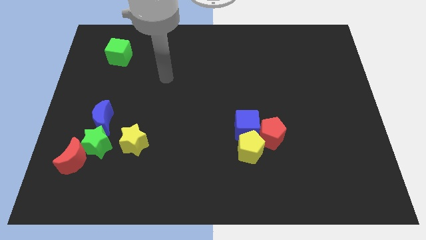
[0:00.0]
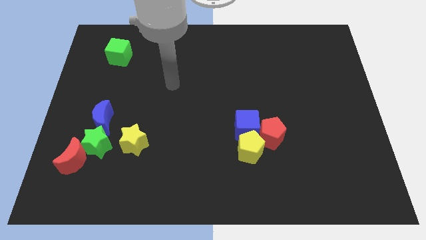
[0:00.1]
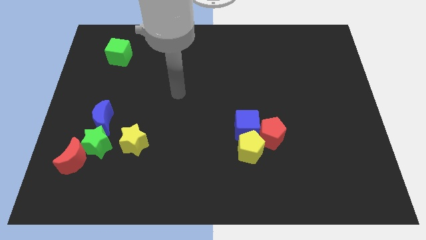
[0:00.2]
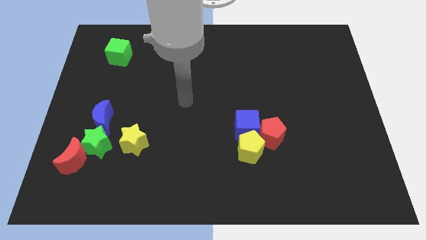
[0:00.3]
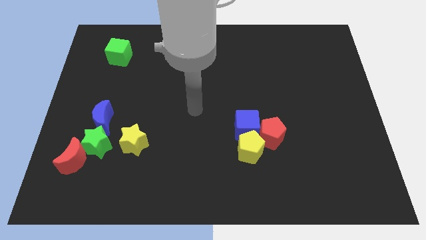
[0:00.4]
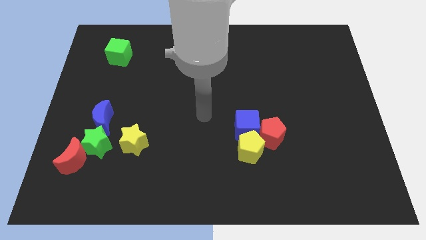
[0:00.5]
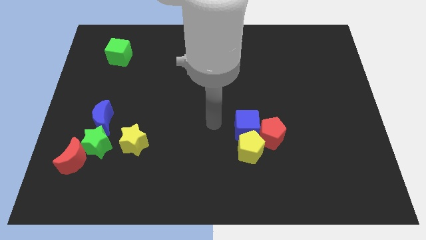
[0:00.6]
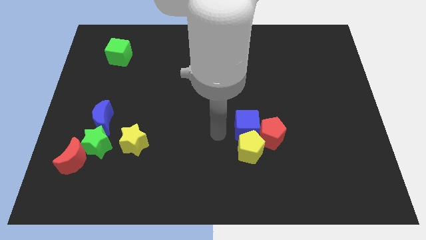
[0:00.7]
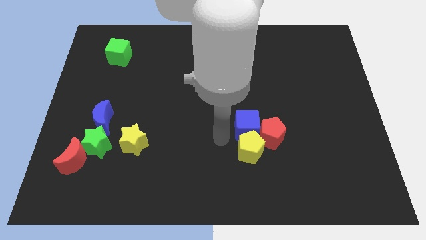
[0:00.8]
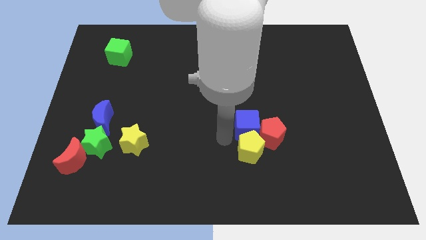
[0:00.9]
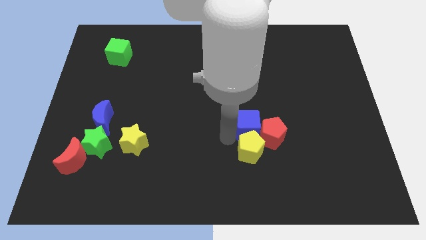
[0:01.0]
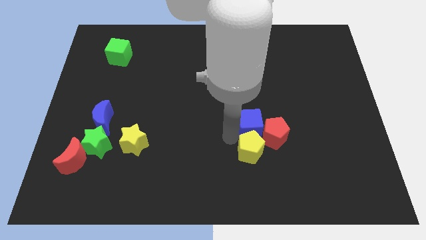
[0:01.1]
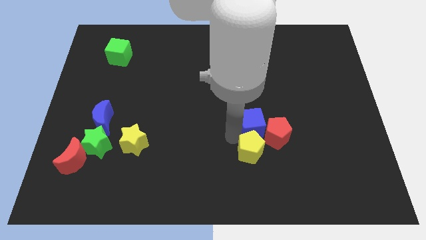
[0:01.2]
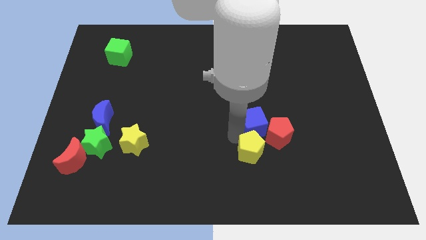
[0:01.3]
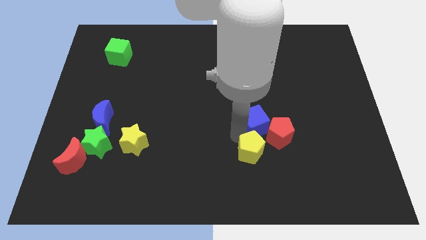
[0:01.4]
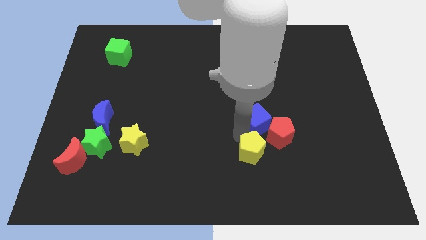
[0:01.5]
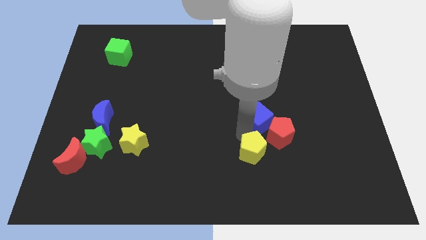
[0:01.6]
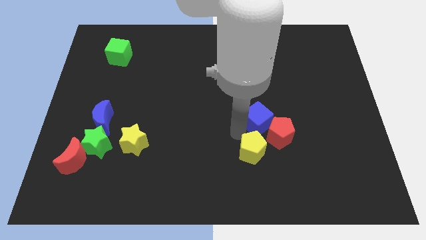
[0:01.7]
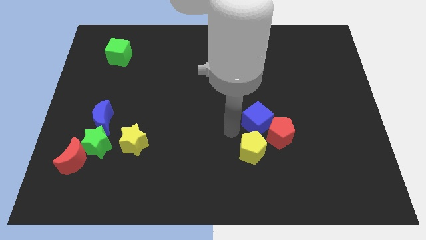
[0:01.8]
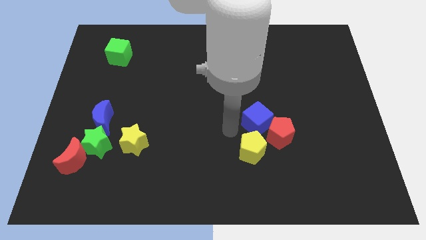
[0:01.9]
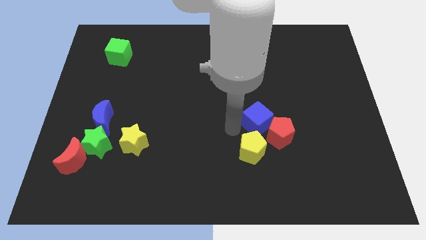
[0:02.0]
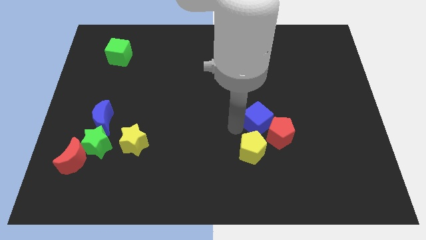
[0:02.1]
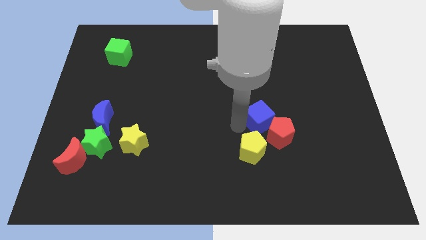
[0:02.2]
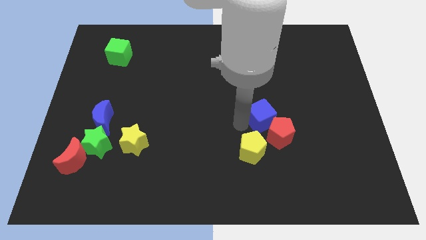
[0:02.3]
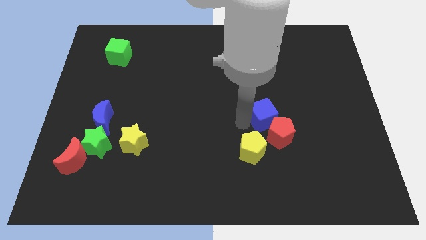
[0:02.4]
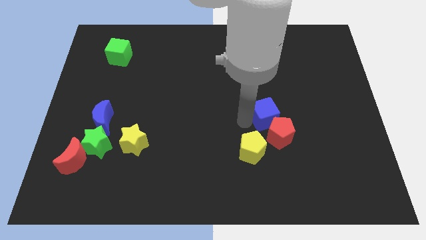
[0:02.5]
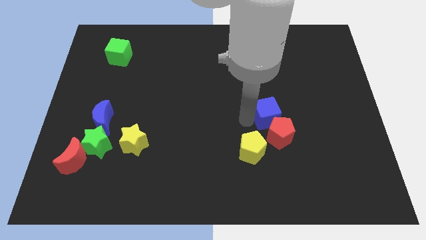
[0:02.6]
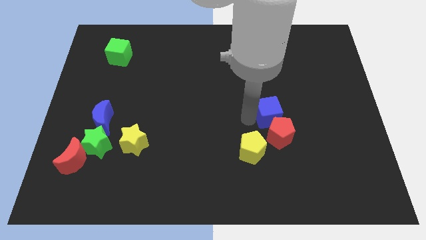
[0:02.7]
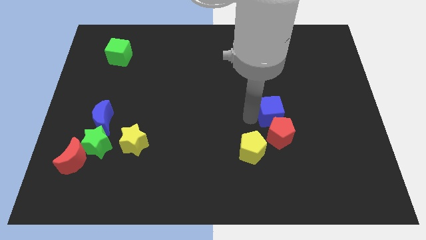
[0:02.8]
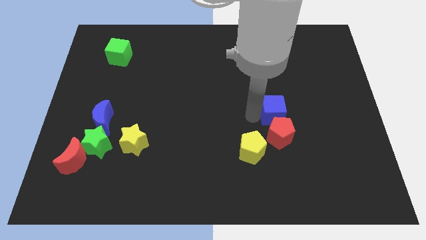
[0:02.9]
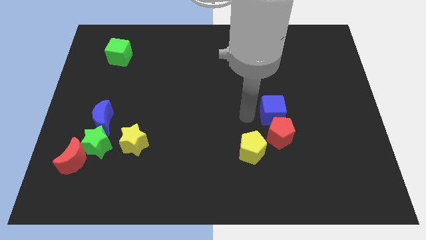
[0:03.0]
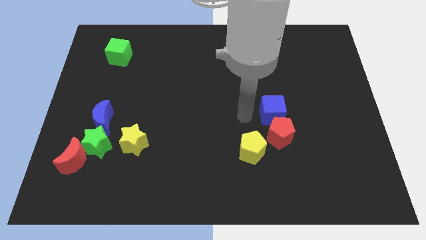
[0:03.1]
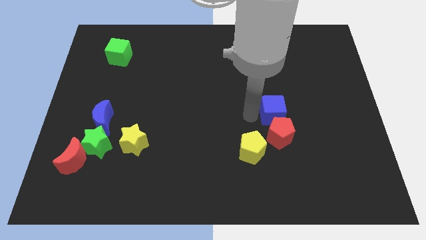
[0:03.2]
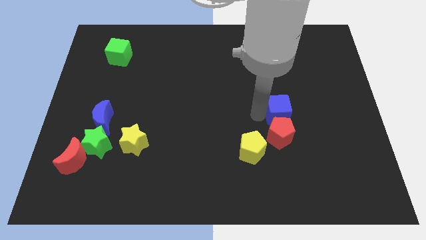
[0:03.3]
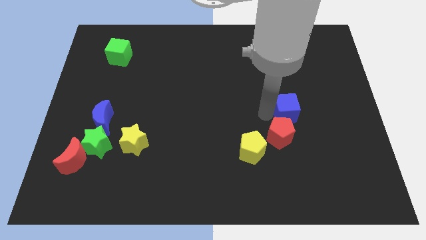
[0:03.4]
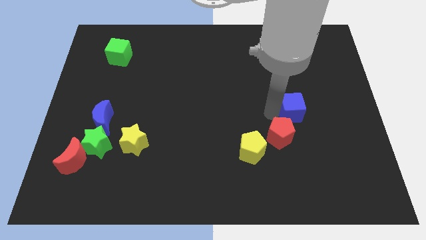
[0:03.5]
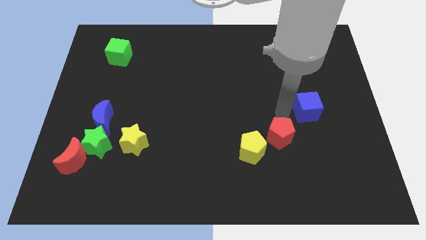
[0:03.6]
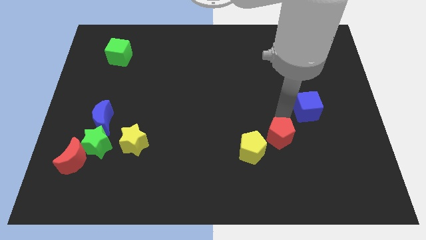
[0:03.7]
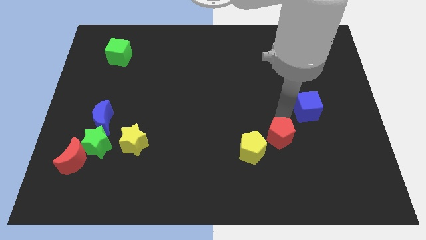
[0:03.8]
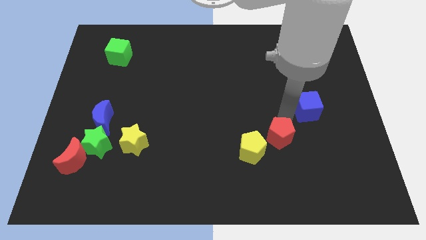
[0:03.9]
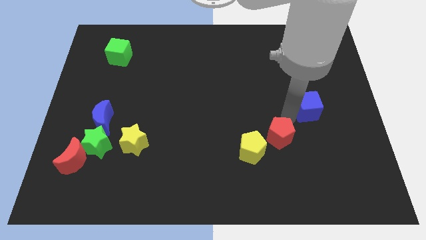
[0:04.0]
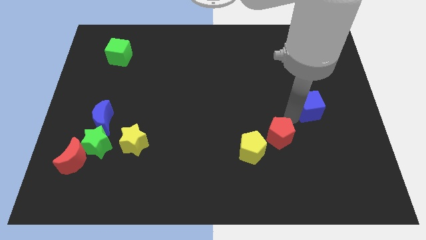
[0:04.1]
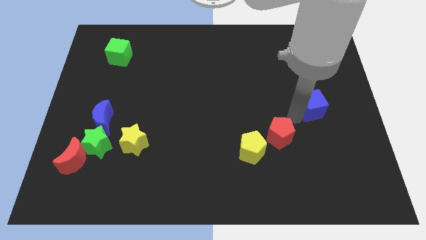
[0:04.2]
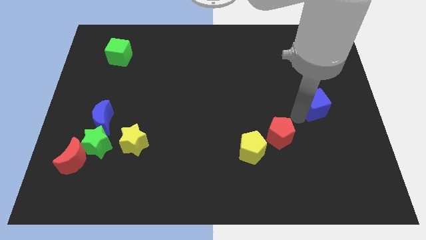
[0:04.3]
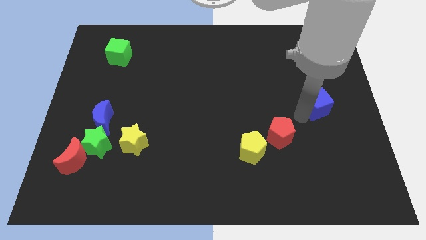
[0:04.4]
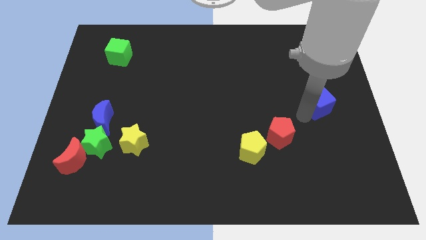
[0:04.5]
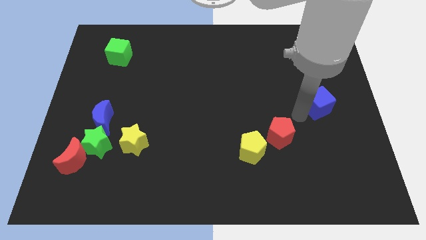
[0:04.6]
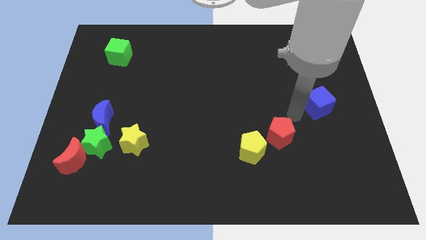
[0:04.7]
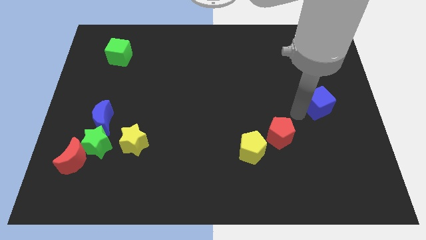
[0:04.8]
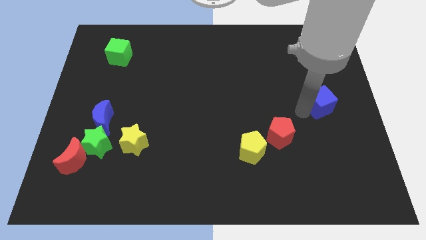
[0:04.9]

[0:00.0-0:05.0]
move the blue cube to the right side of the board
